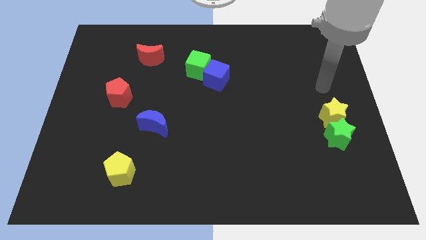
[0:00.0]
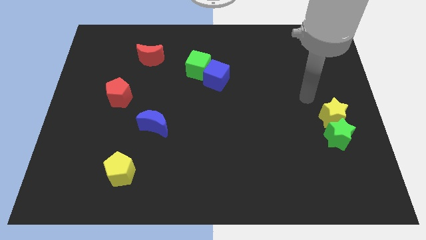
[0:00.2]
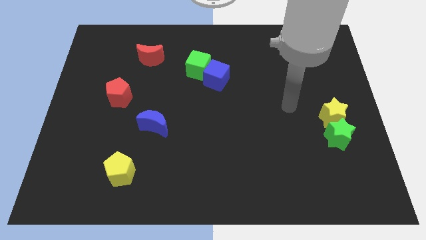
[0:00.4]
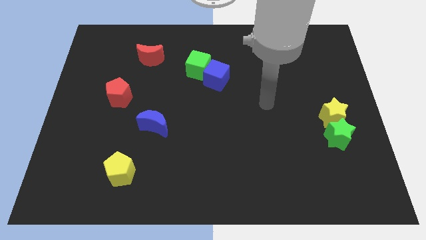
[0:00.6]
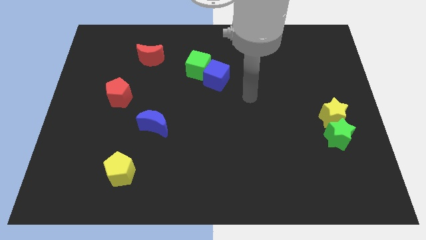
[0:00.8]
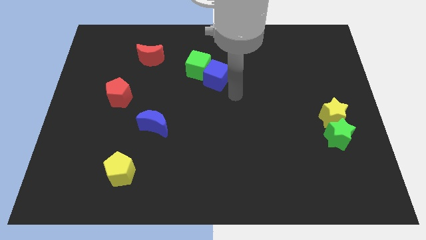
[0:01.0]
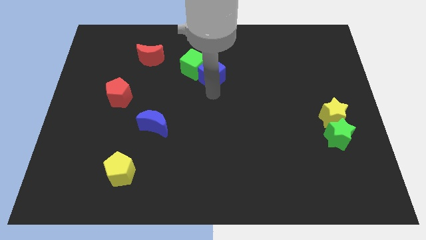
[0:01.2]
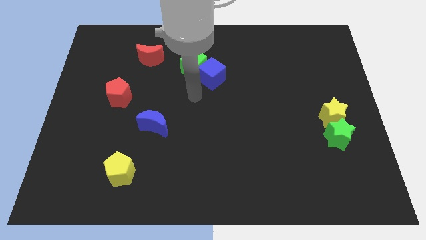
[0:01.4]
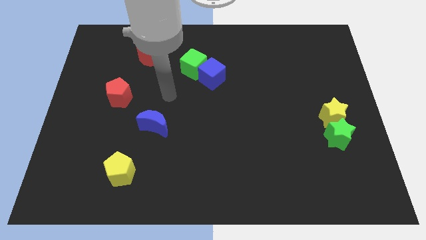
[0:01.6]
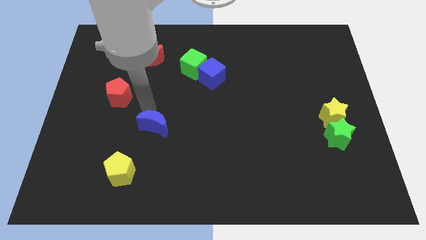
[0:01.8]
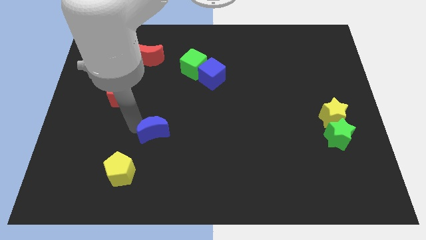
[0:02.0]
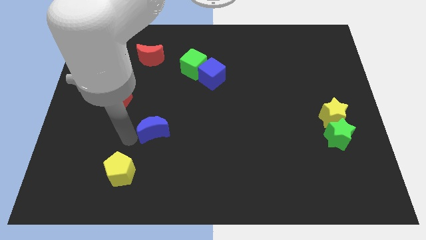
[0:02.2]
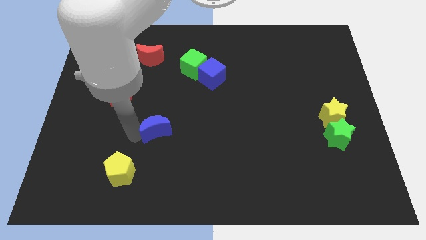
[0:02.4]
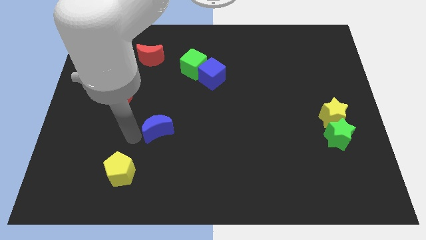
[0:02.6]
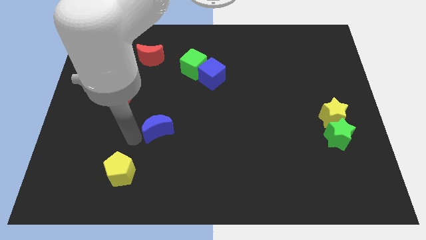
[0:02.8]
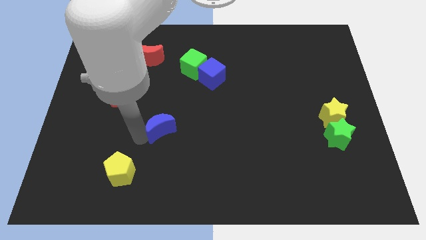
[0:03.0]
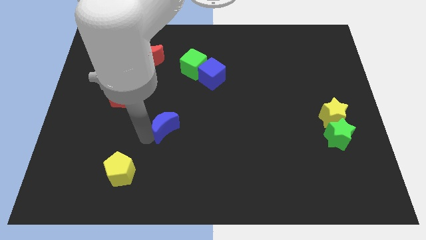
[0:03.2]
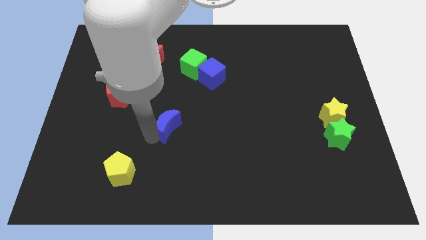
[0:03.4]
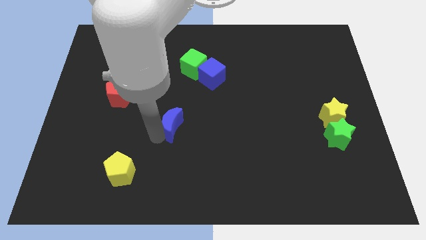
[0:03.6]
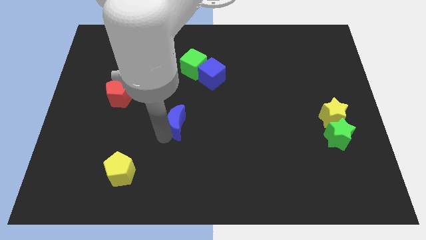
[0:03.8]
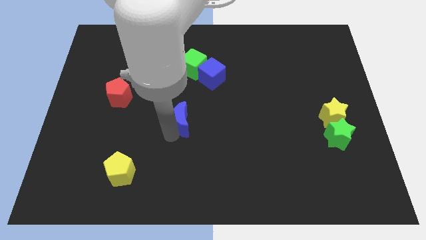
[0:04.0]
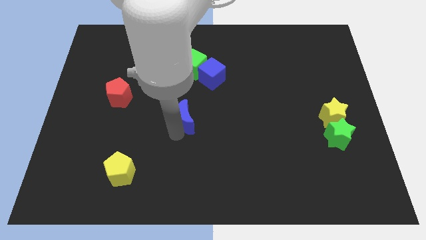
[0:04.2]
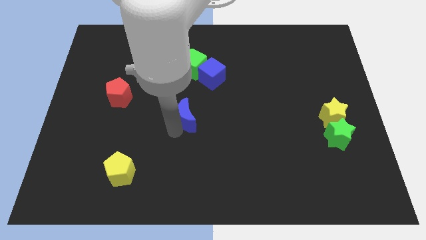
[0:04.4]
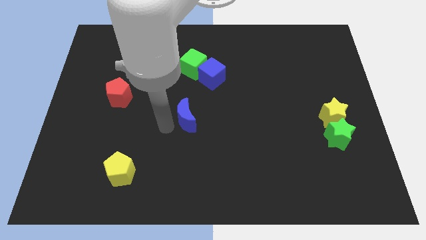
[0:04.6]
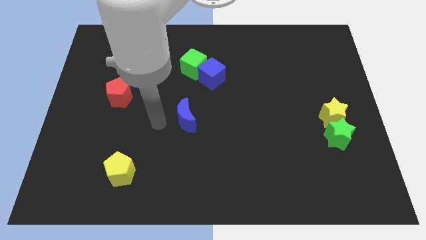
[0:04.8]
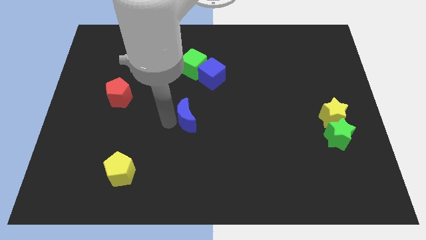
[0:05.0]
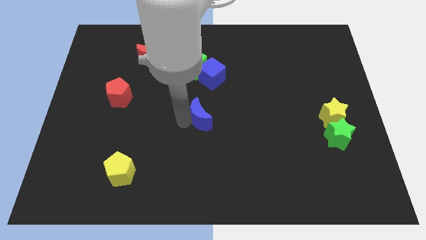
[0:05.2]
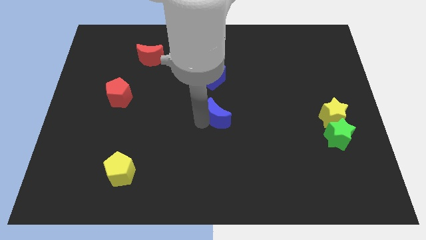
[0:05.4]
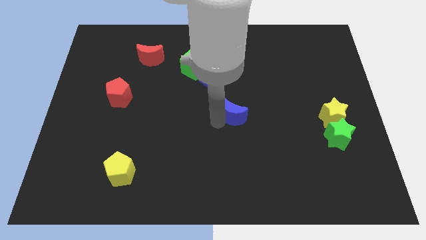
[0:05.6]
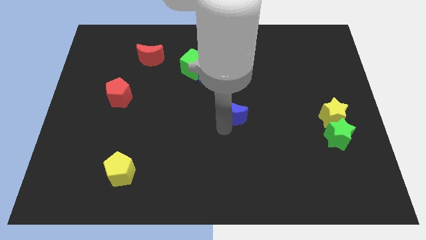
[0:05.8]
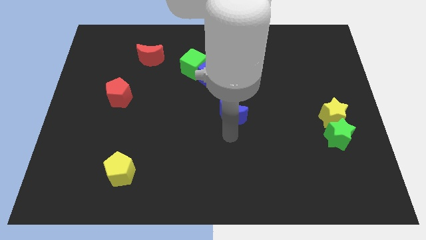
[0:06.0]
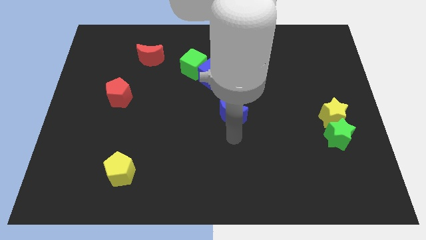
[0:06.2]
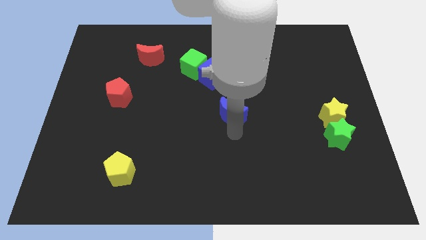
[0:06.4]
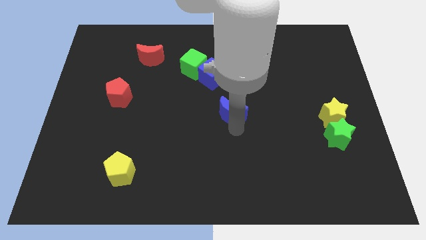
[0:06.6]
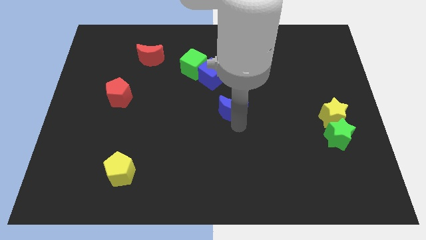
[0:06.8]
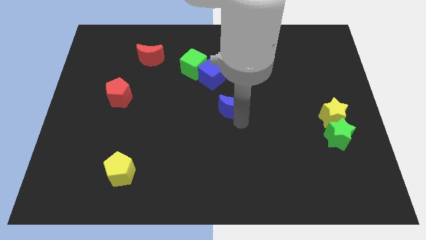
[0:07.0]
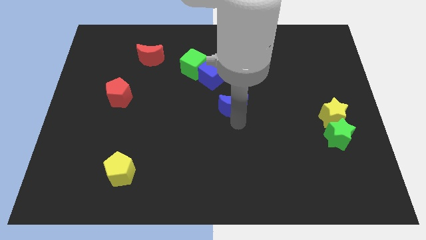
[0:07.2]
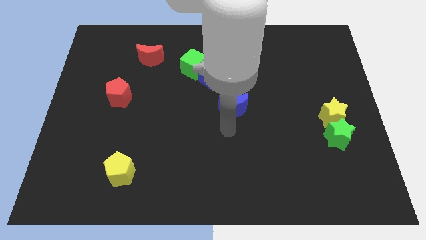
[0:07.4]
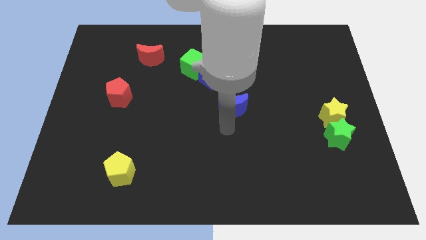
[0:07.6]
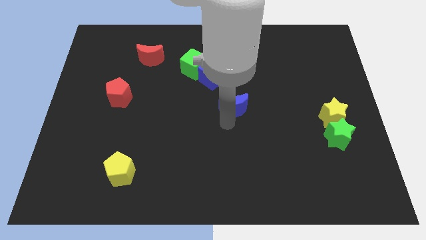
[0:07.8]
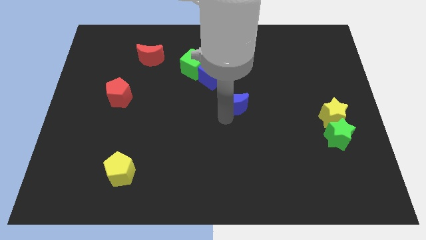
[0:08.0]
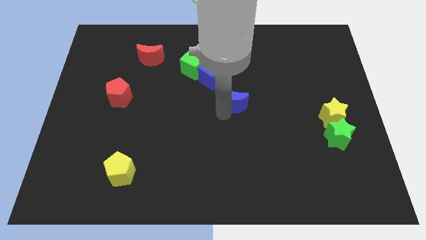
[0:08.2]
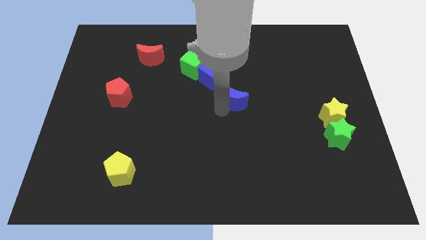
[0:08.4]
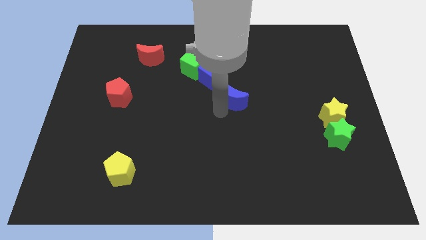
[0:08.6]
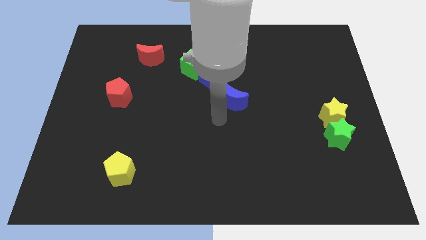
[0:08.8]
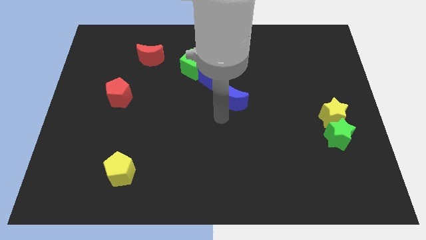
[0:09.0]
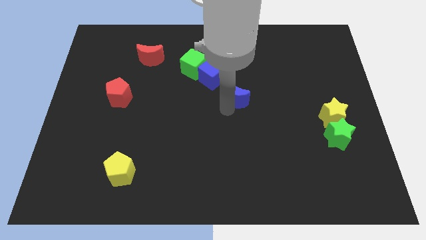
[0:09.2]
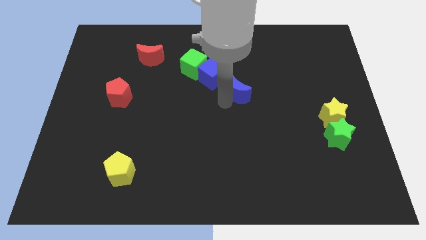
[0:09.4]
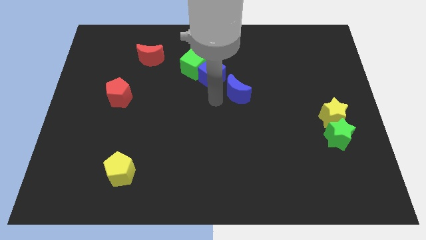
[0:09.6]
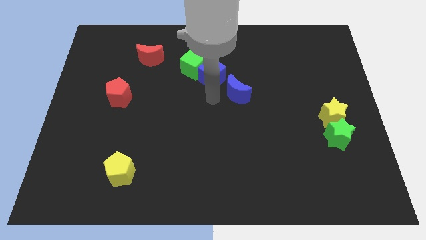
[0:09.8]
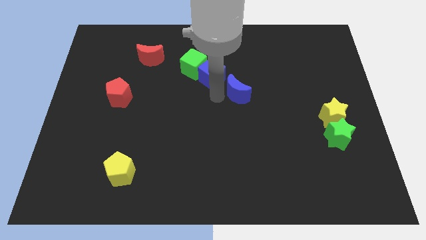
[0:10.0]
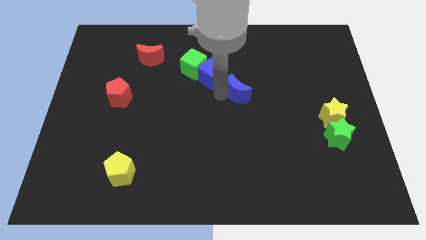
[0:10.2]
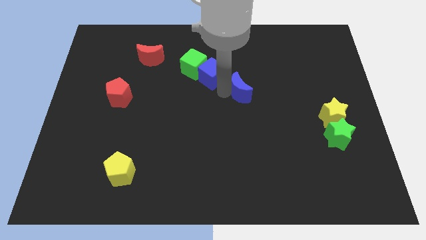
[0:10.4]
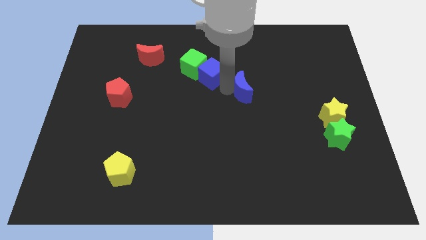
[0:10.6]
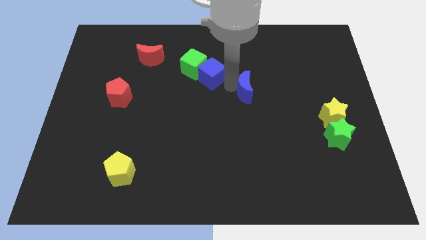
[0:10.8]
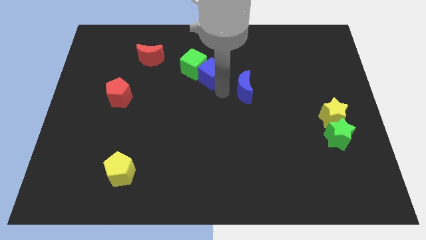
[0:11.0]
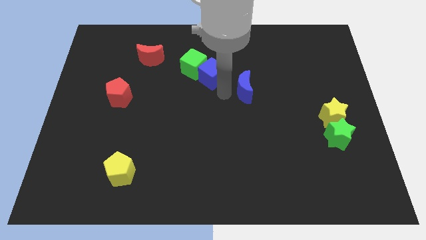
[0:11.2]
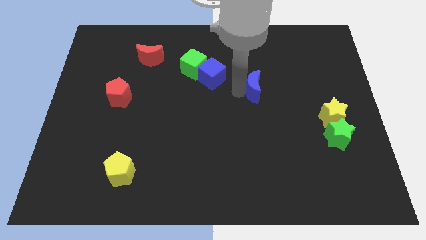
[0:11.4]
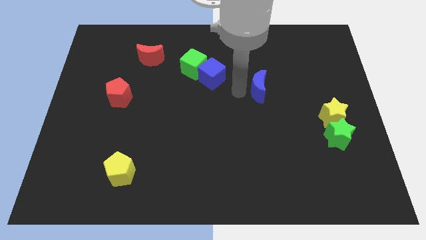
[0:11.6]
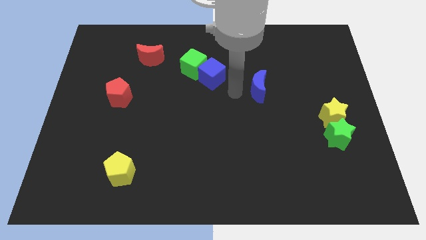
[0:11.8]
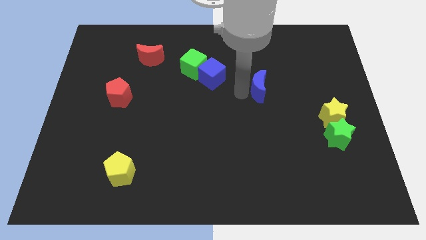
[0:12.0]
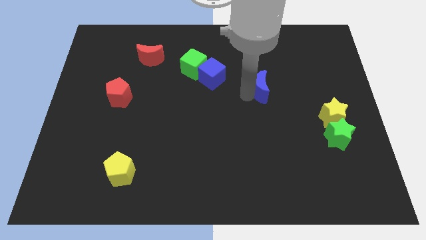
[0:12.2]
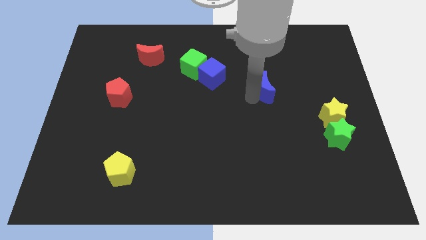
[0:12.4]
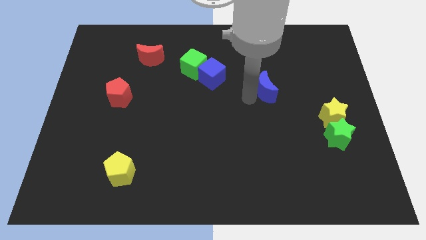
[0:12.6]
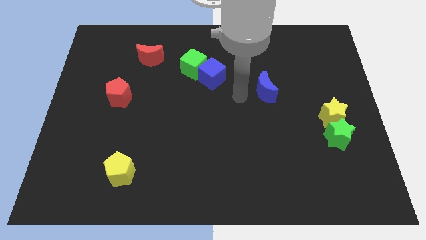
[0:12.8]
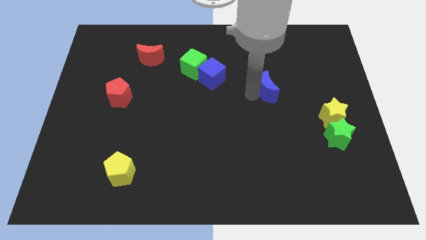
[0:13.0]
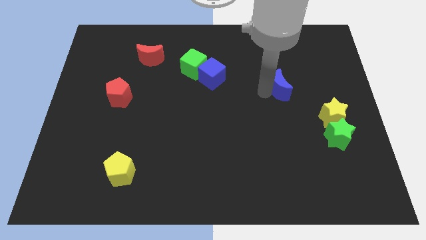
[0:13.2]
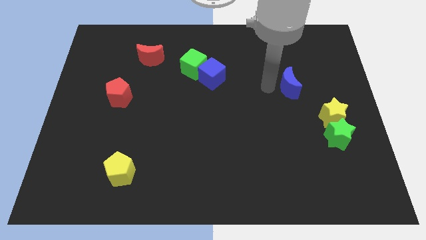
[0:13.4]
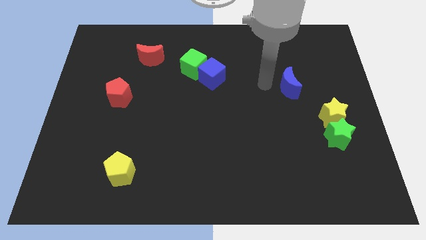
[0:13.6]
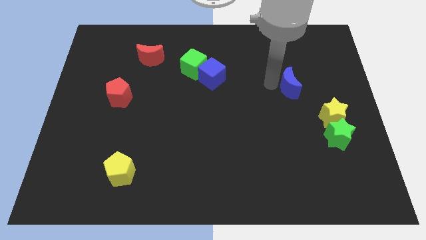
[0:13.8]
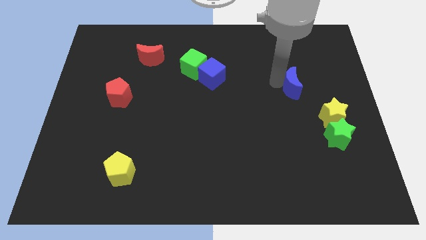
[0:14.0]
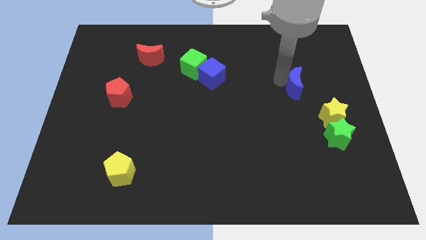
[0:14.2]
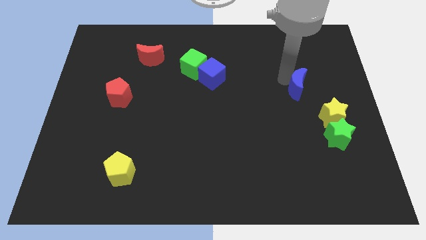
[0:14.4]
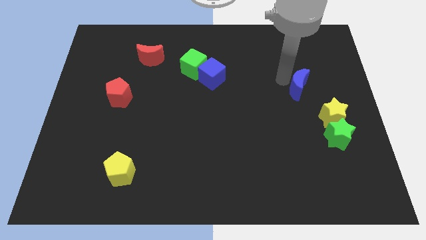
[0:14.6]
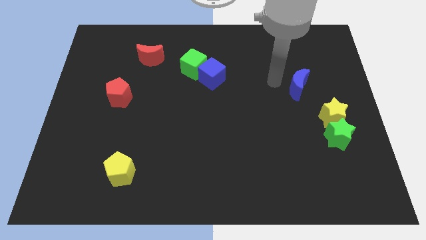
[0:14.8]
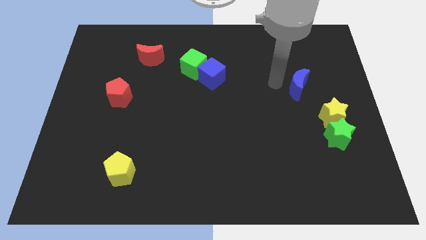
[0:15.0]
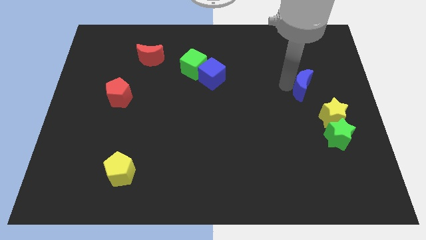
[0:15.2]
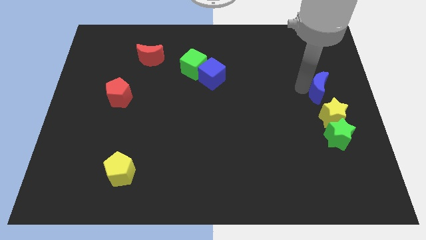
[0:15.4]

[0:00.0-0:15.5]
move the blue moon to the right side
